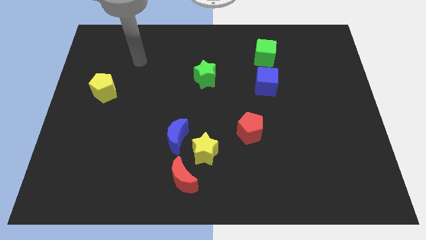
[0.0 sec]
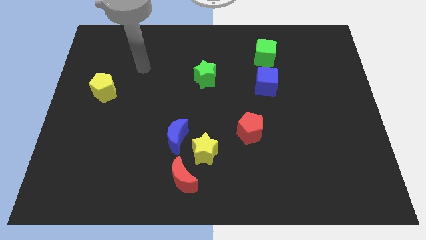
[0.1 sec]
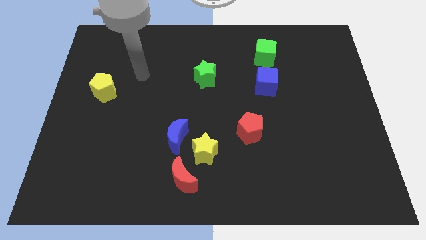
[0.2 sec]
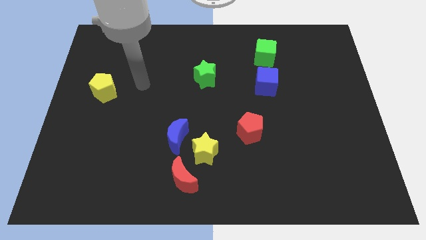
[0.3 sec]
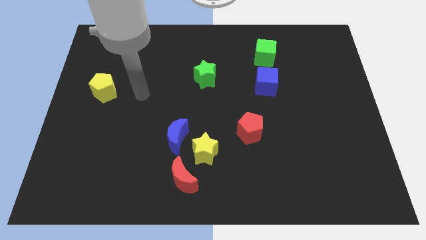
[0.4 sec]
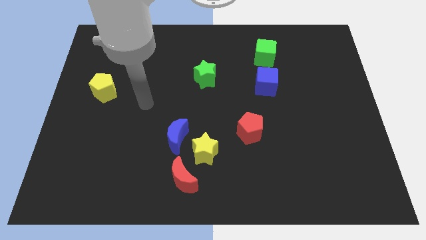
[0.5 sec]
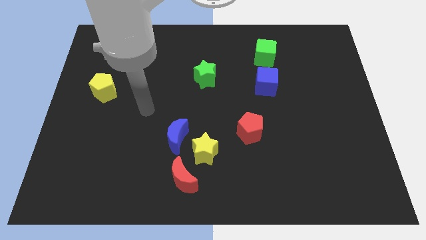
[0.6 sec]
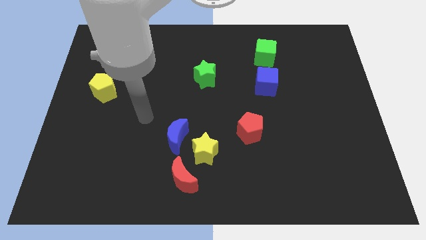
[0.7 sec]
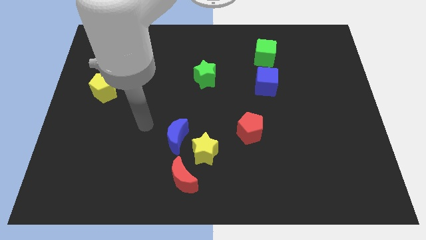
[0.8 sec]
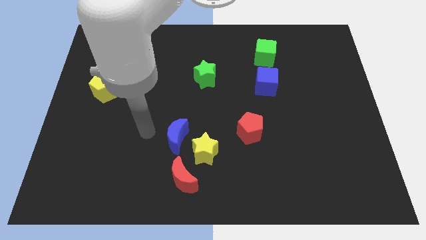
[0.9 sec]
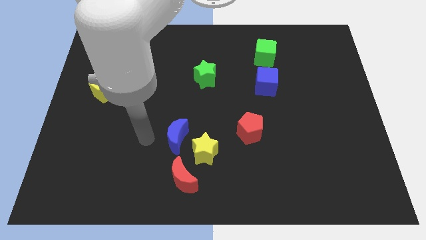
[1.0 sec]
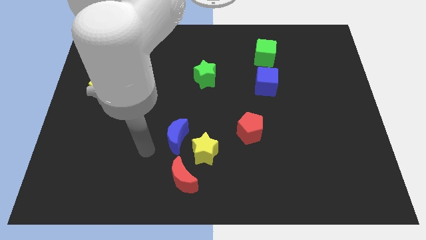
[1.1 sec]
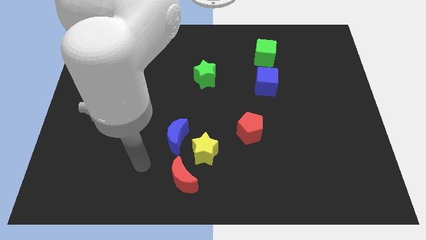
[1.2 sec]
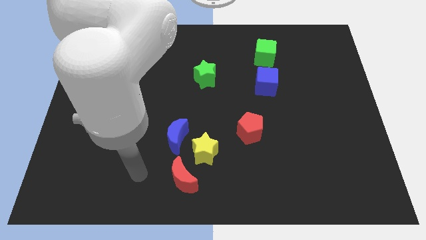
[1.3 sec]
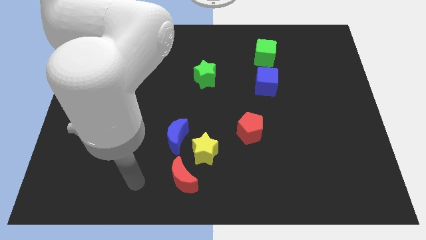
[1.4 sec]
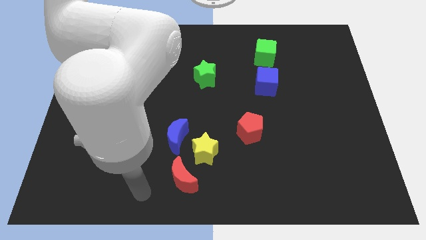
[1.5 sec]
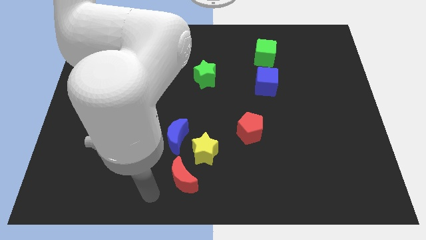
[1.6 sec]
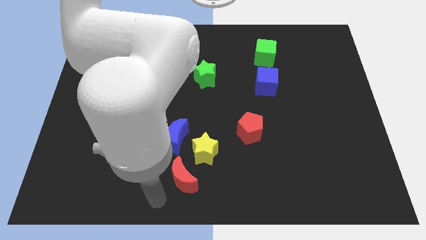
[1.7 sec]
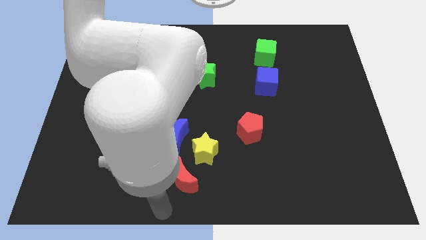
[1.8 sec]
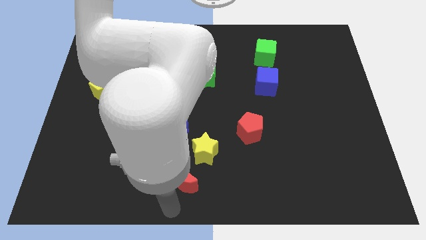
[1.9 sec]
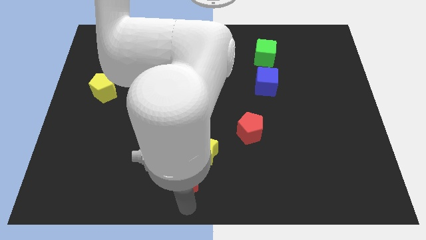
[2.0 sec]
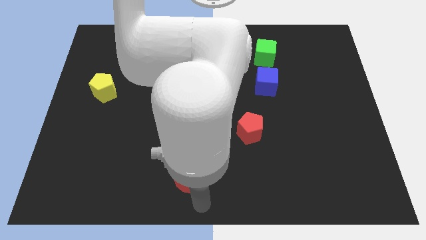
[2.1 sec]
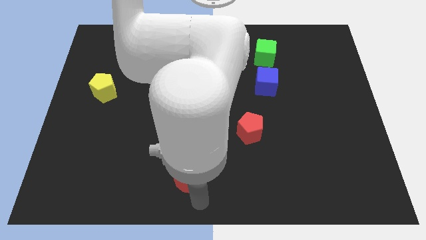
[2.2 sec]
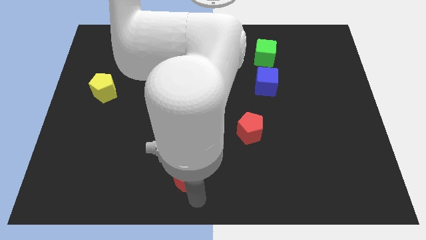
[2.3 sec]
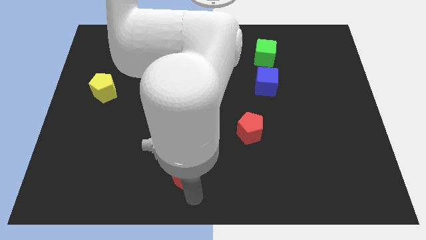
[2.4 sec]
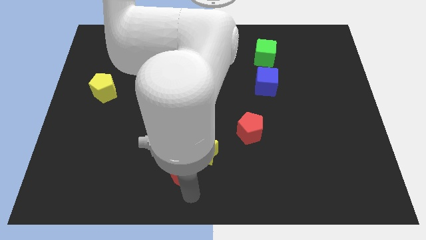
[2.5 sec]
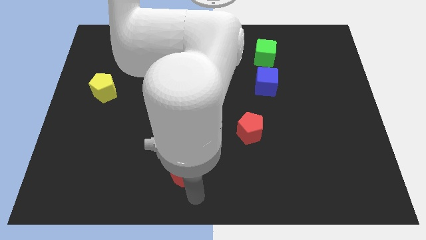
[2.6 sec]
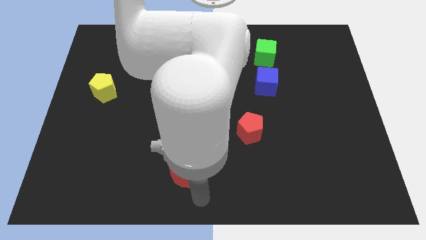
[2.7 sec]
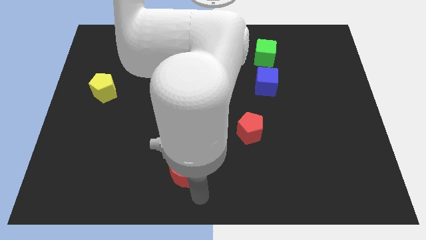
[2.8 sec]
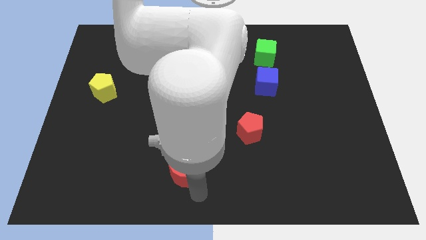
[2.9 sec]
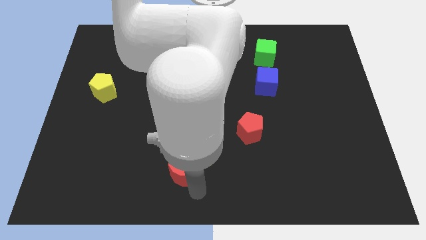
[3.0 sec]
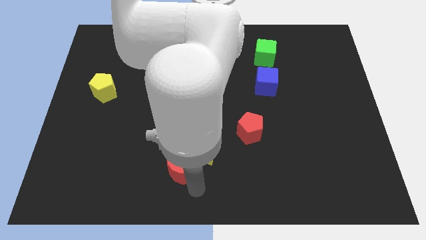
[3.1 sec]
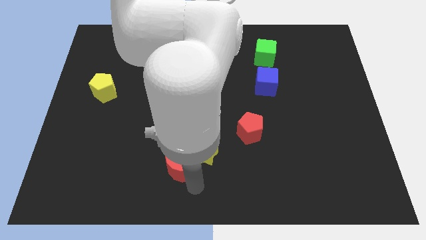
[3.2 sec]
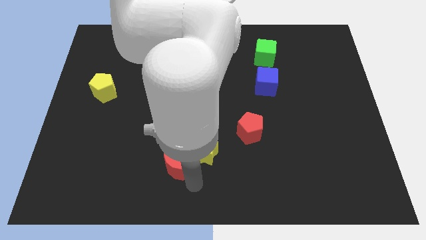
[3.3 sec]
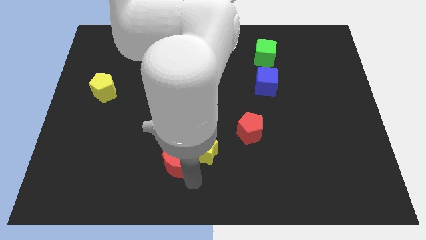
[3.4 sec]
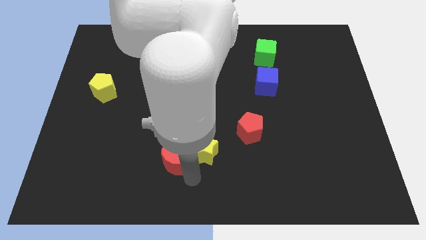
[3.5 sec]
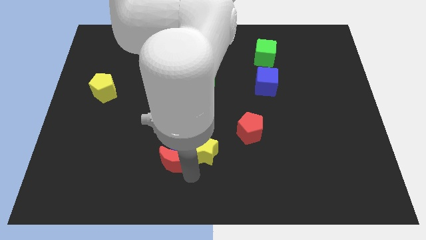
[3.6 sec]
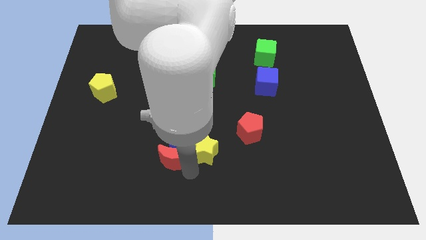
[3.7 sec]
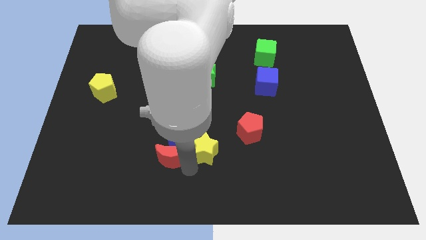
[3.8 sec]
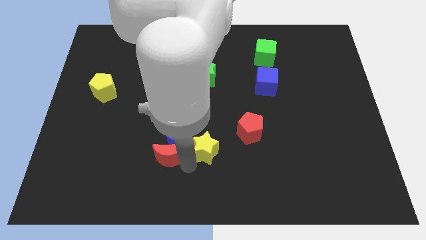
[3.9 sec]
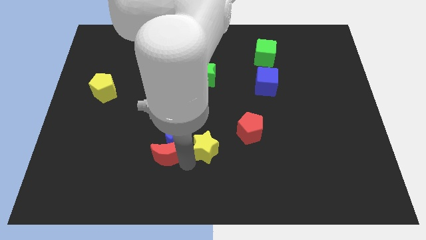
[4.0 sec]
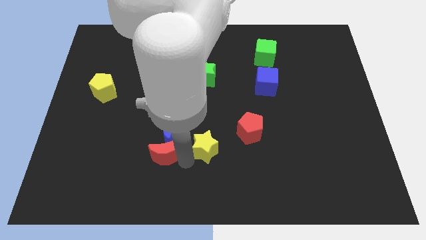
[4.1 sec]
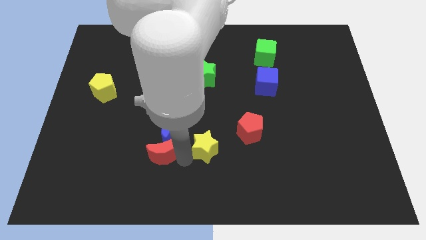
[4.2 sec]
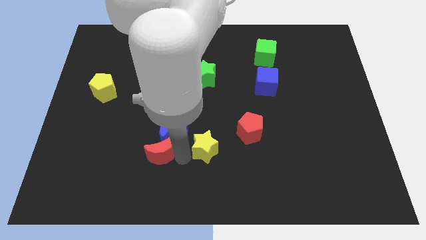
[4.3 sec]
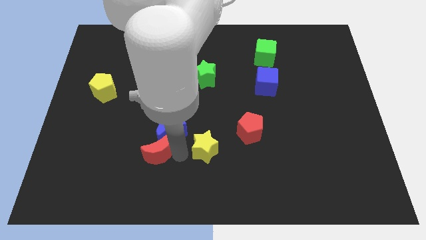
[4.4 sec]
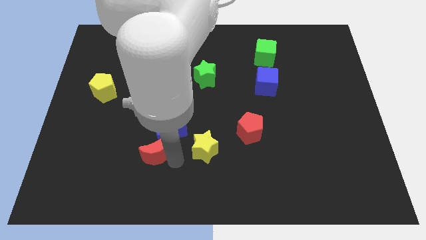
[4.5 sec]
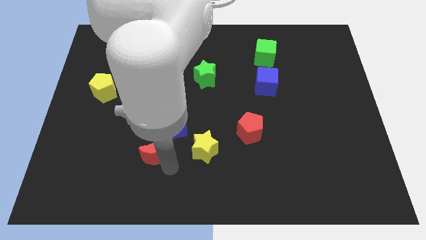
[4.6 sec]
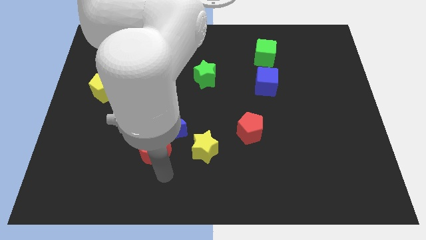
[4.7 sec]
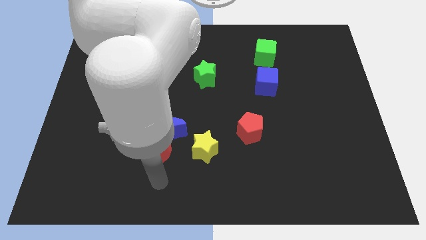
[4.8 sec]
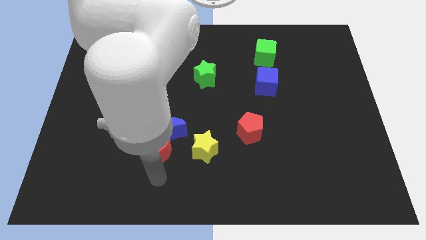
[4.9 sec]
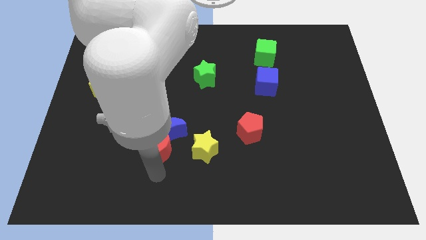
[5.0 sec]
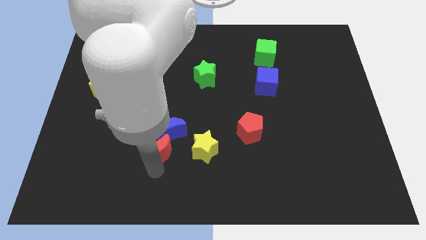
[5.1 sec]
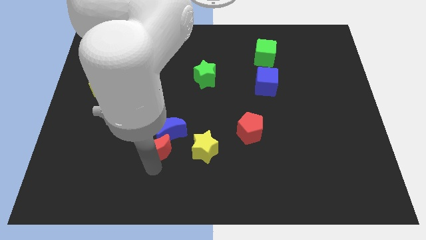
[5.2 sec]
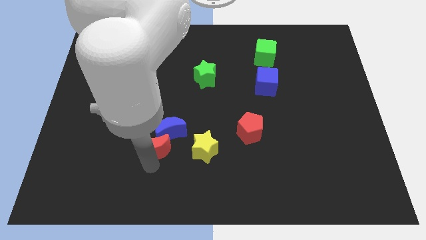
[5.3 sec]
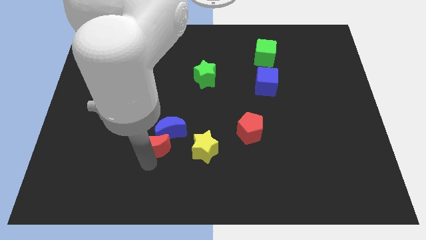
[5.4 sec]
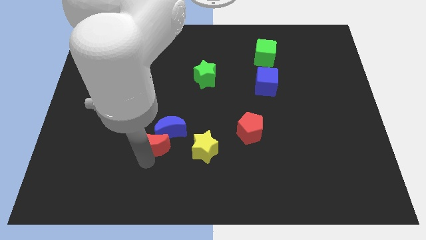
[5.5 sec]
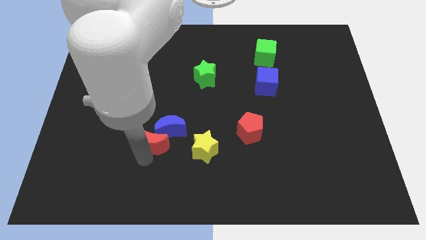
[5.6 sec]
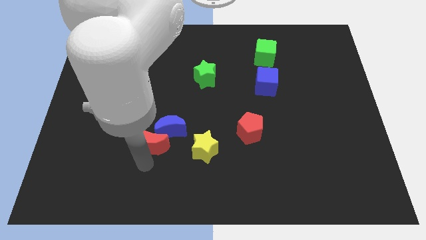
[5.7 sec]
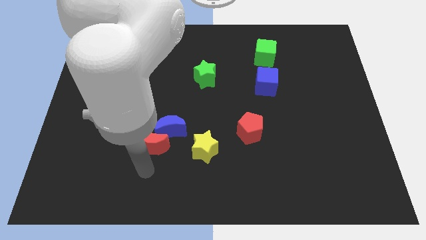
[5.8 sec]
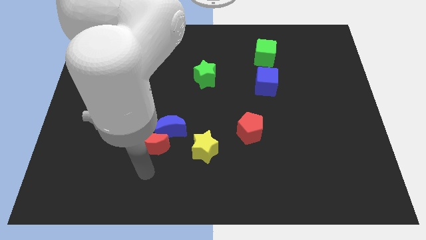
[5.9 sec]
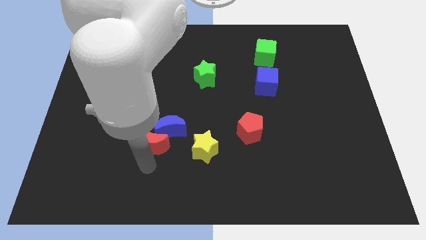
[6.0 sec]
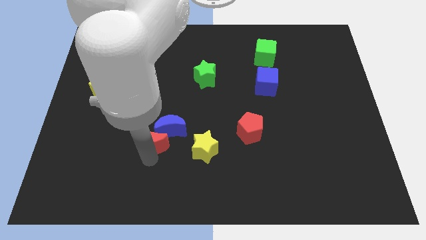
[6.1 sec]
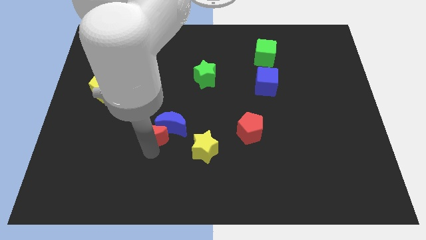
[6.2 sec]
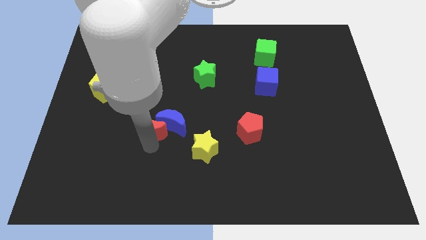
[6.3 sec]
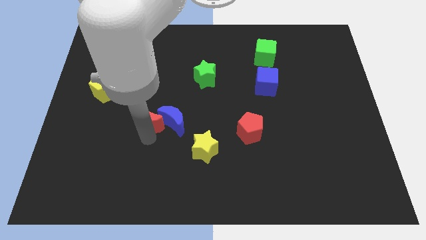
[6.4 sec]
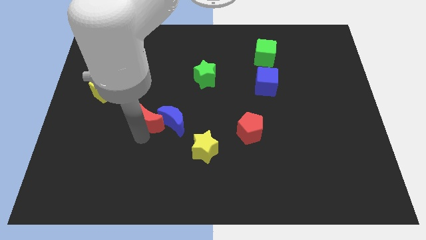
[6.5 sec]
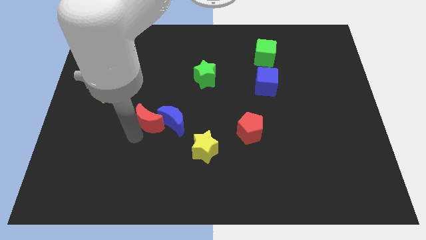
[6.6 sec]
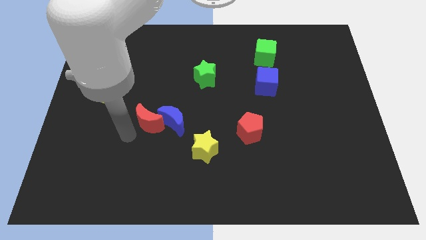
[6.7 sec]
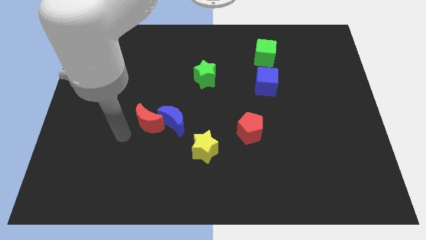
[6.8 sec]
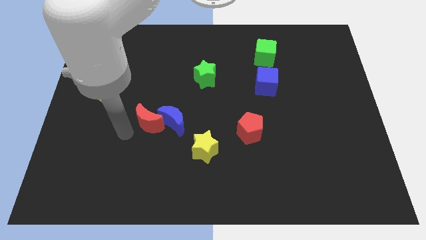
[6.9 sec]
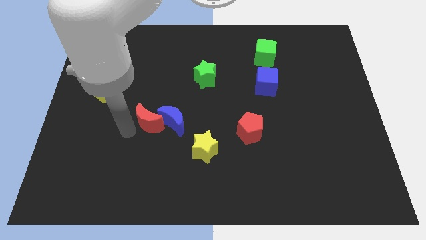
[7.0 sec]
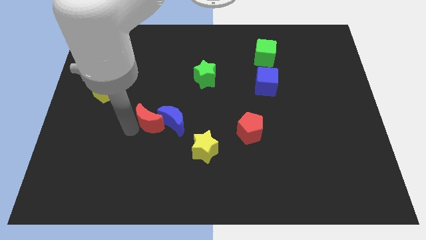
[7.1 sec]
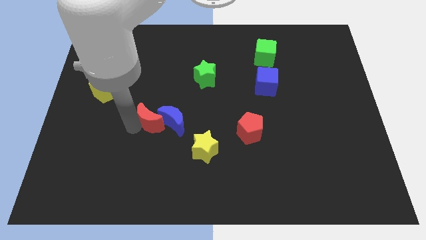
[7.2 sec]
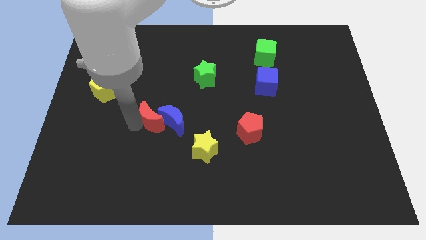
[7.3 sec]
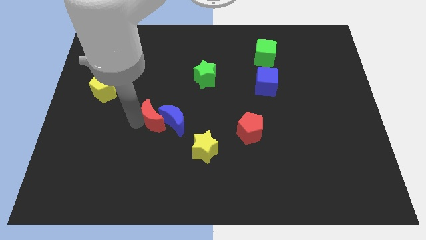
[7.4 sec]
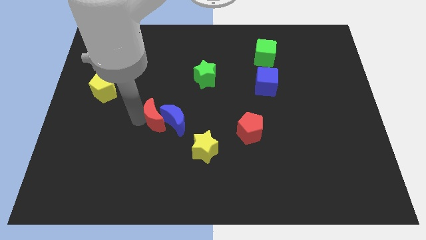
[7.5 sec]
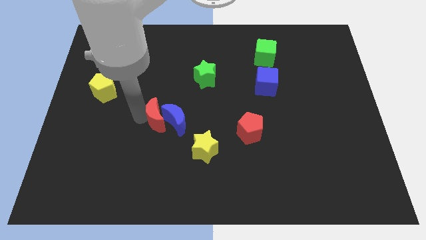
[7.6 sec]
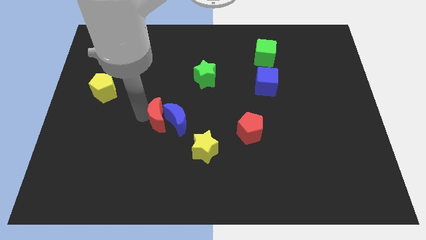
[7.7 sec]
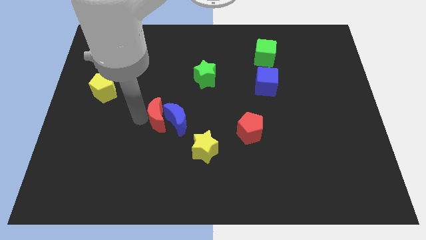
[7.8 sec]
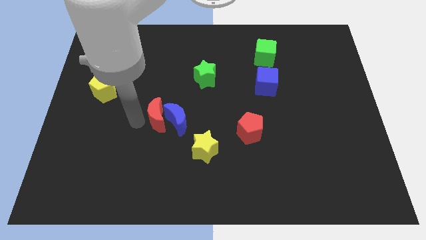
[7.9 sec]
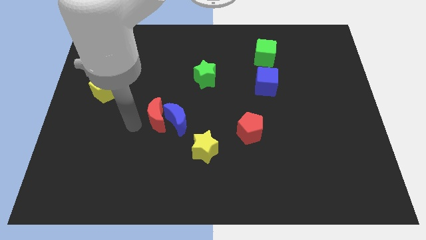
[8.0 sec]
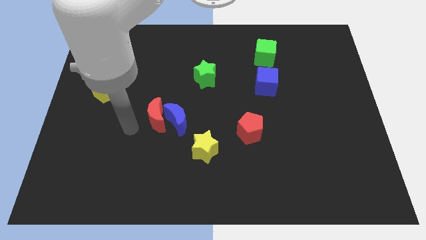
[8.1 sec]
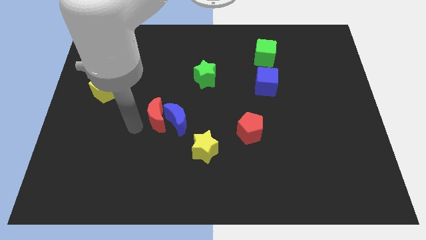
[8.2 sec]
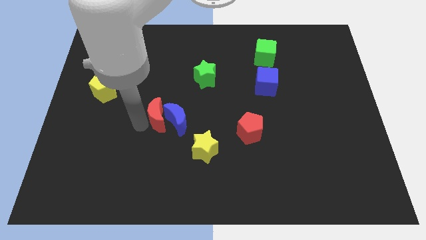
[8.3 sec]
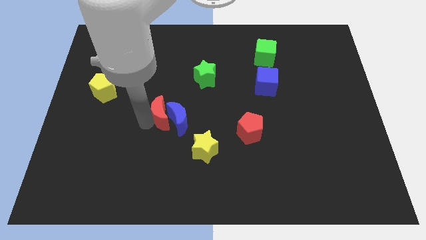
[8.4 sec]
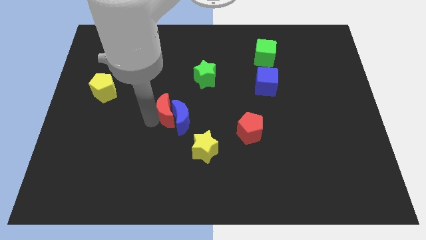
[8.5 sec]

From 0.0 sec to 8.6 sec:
move the red moon to the center
